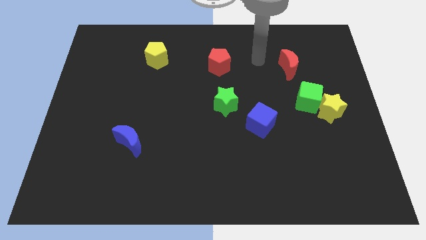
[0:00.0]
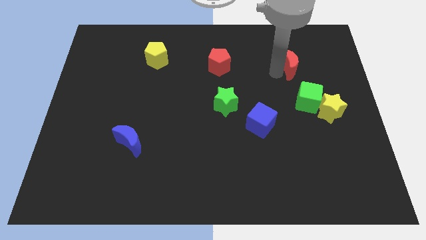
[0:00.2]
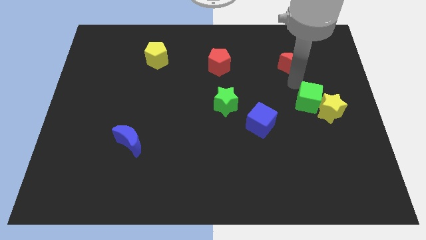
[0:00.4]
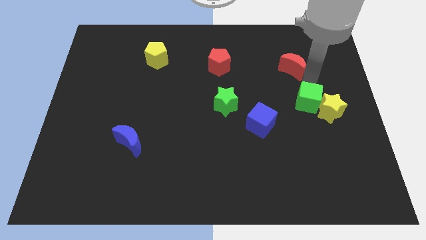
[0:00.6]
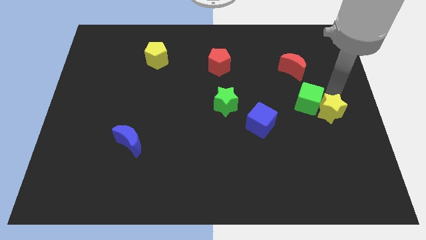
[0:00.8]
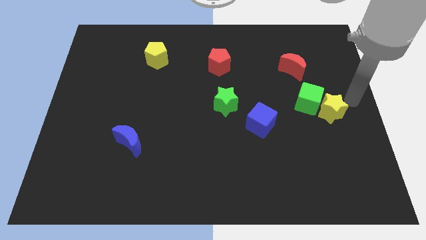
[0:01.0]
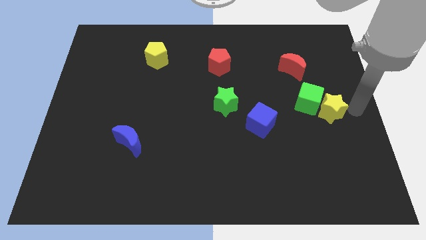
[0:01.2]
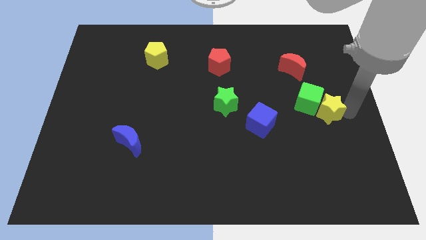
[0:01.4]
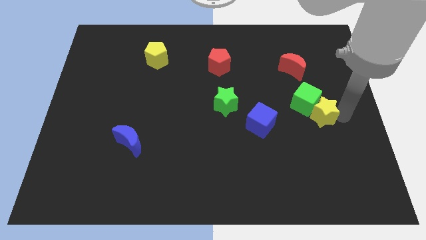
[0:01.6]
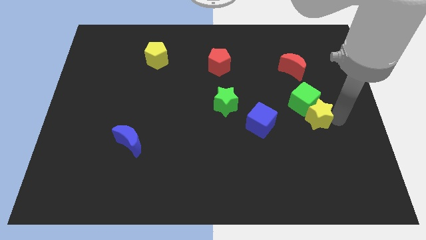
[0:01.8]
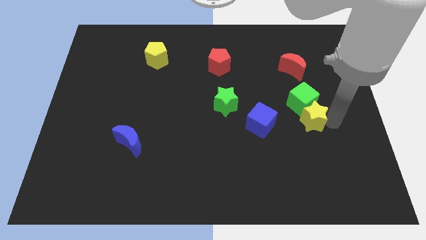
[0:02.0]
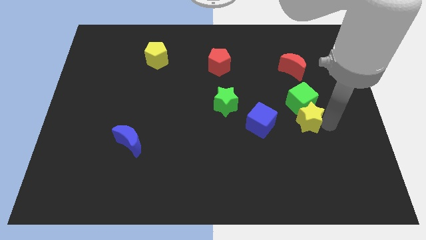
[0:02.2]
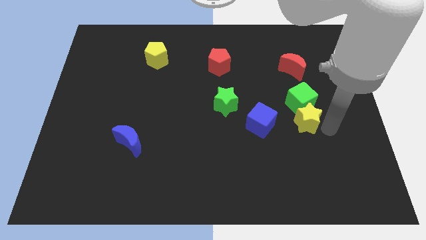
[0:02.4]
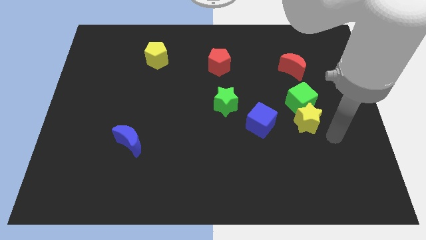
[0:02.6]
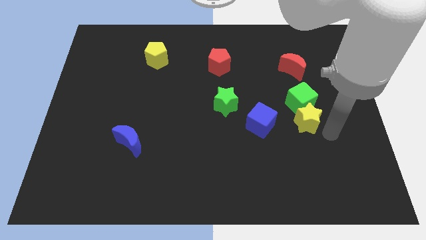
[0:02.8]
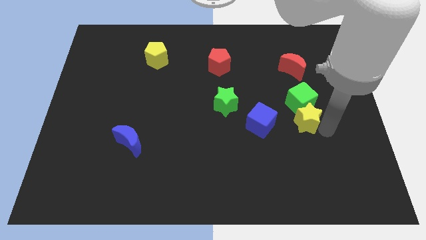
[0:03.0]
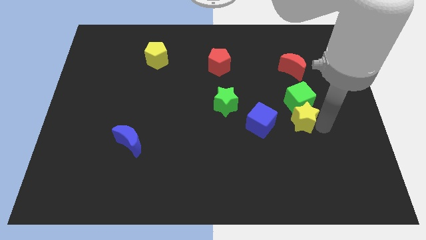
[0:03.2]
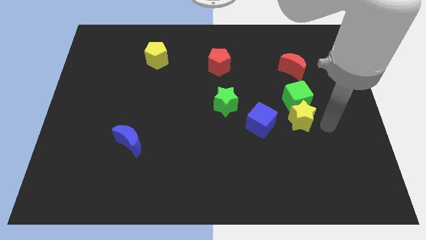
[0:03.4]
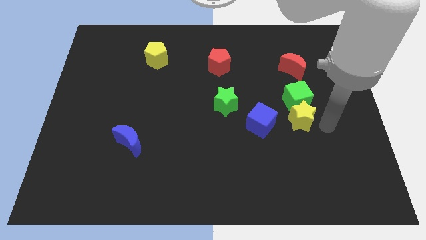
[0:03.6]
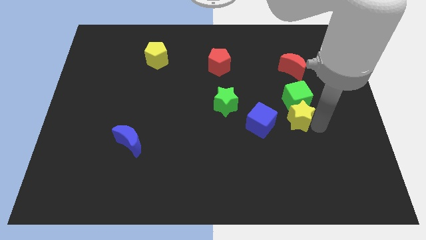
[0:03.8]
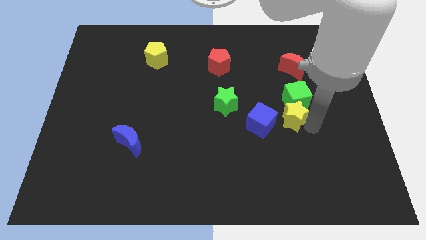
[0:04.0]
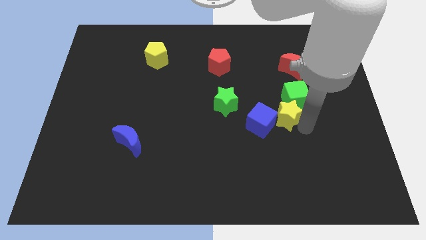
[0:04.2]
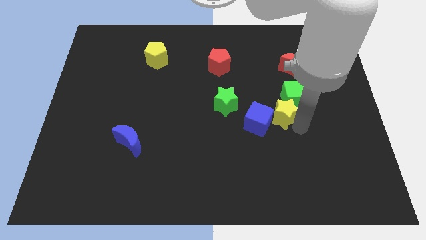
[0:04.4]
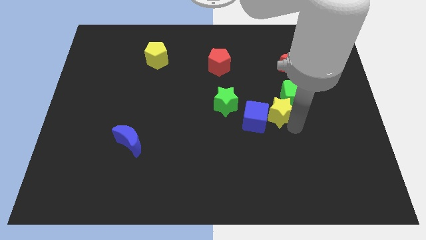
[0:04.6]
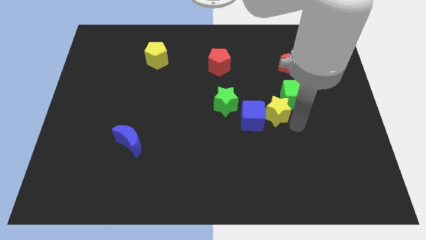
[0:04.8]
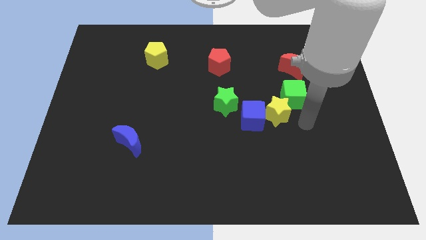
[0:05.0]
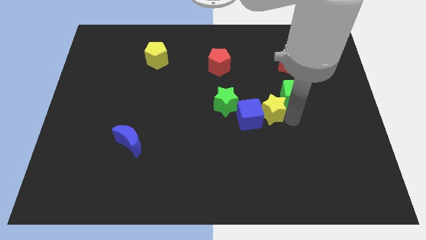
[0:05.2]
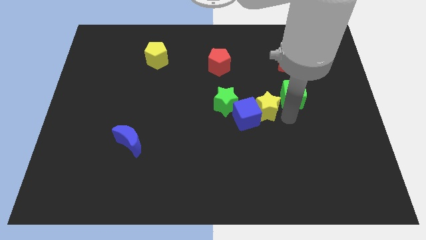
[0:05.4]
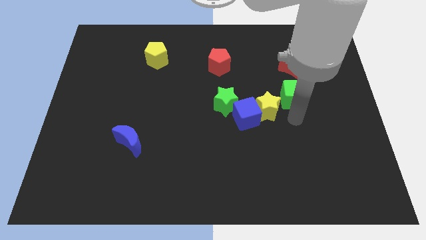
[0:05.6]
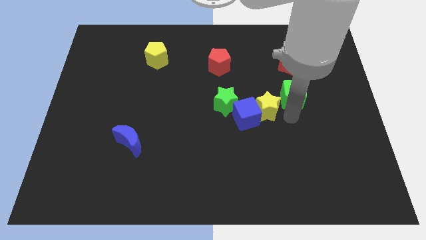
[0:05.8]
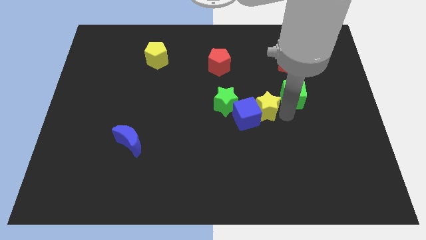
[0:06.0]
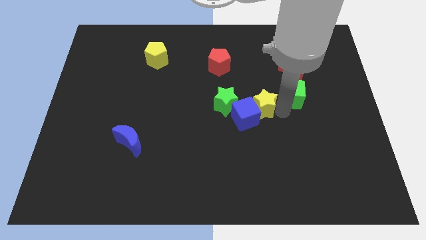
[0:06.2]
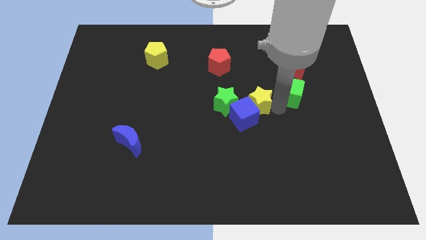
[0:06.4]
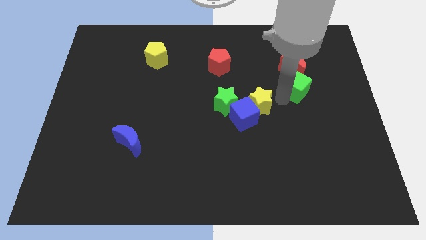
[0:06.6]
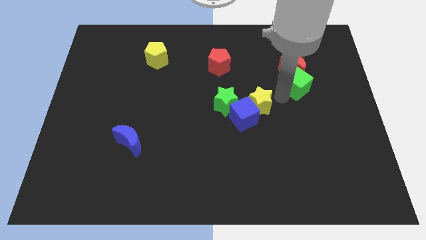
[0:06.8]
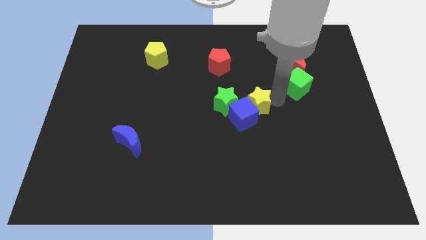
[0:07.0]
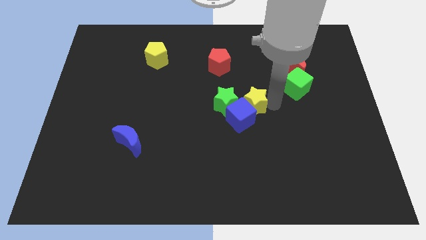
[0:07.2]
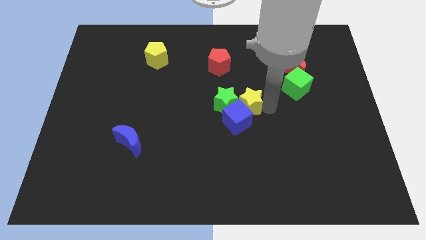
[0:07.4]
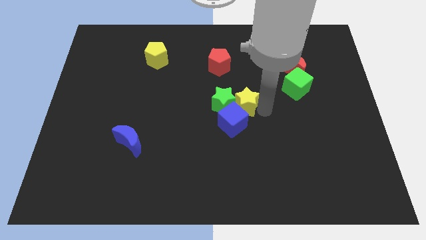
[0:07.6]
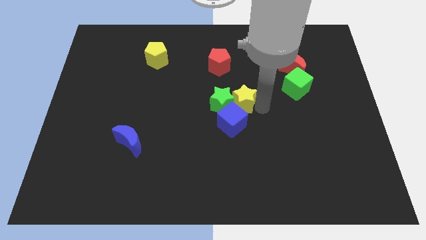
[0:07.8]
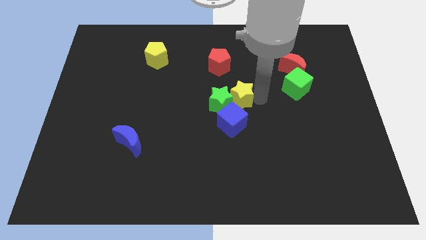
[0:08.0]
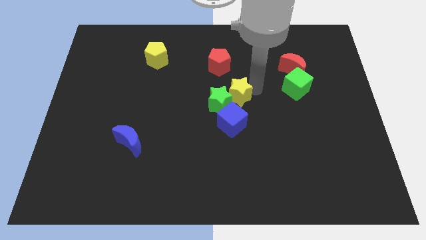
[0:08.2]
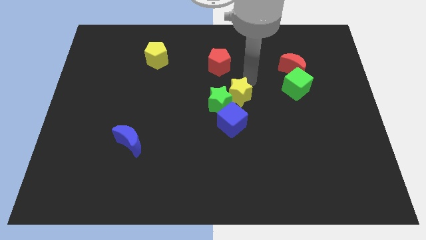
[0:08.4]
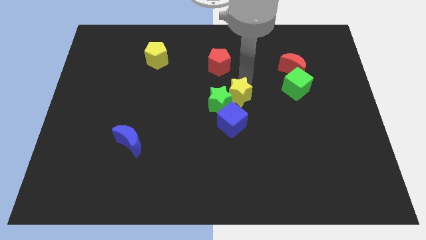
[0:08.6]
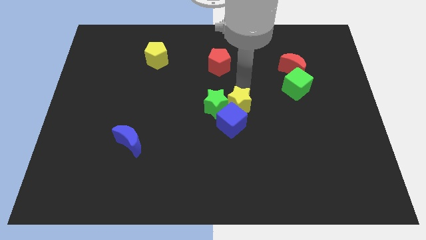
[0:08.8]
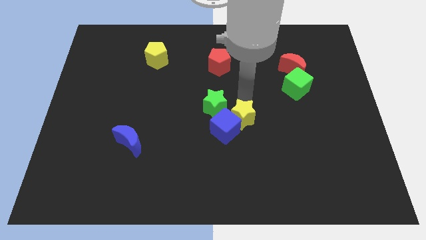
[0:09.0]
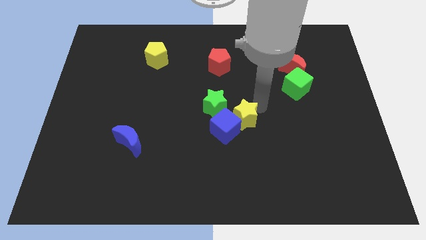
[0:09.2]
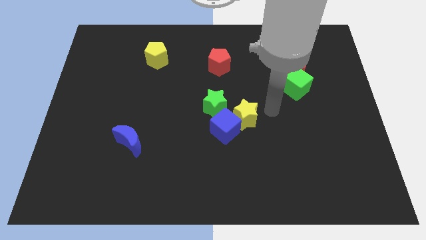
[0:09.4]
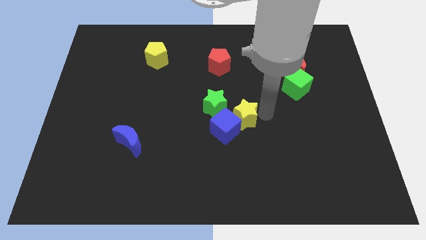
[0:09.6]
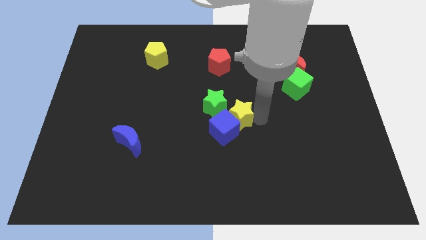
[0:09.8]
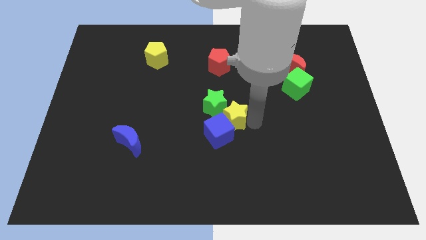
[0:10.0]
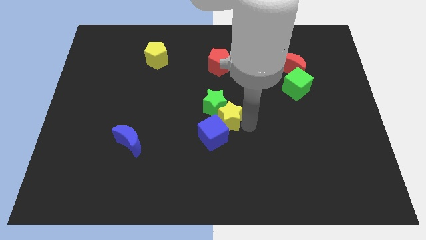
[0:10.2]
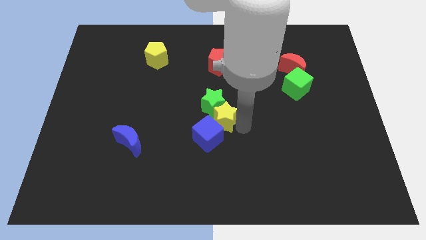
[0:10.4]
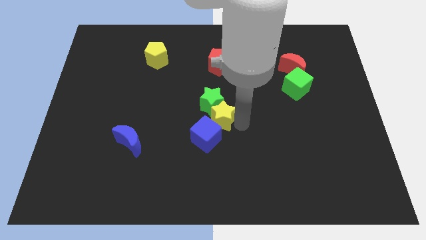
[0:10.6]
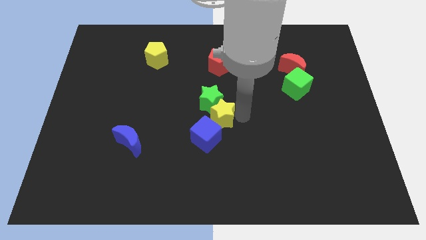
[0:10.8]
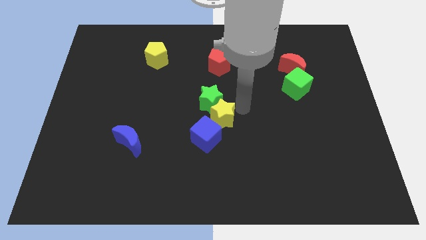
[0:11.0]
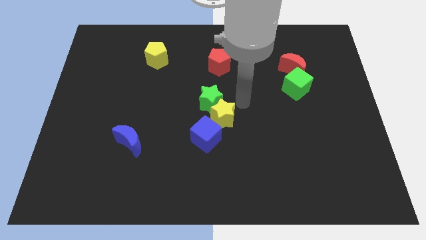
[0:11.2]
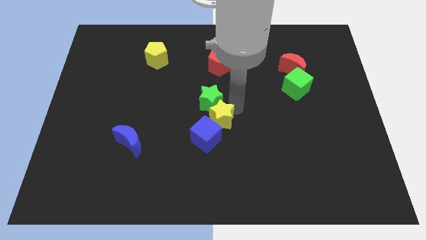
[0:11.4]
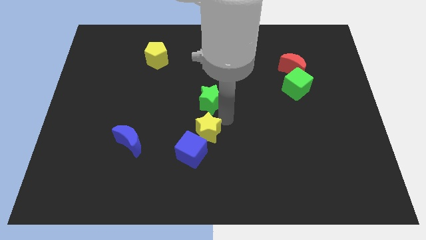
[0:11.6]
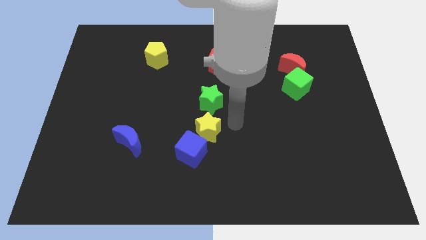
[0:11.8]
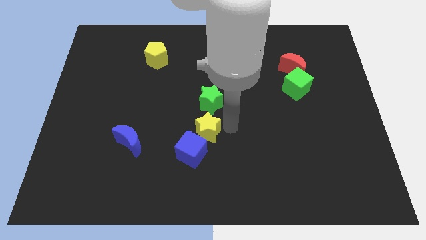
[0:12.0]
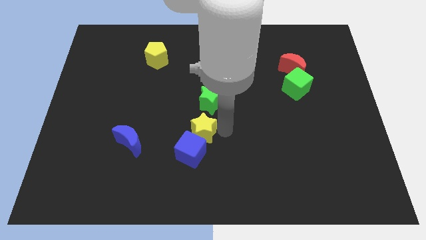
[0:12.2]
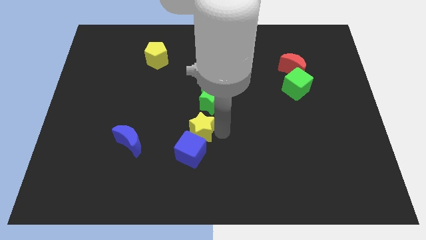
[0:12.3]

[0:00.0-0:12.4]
put the yellow star right of the blue moon

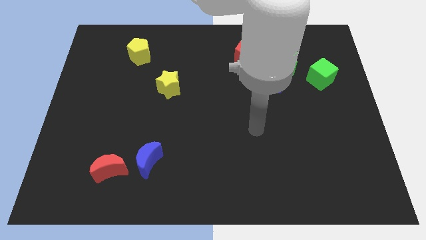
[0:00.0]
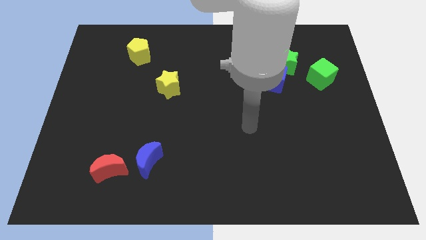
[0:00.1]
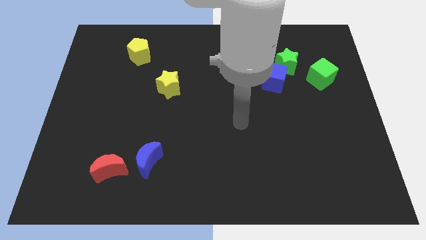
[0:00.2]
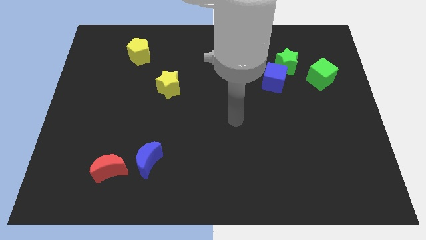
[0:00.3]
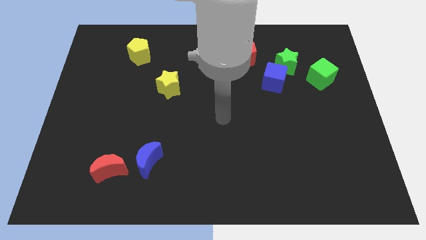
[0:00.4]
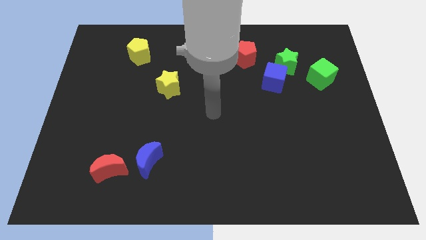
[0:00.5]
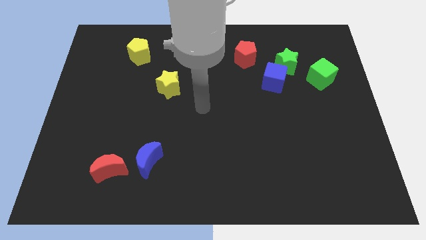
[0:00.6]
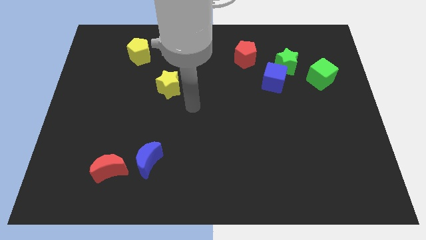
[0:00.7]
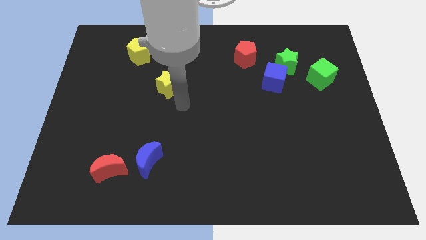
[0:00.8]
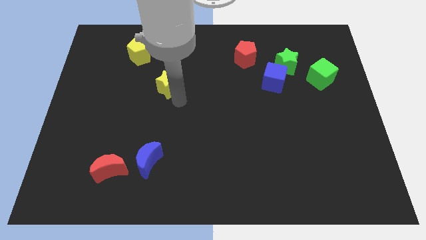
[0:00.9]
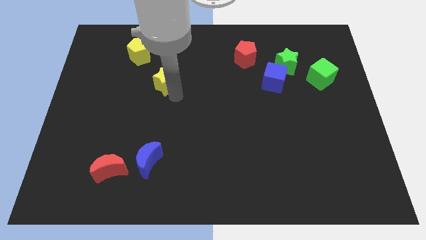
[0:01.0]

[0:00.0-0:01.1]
move the yellow star diagonally down and to the right of the yellow pentagon
